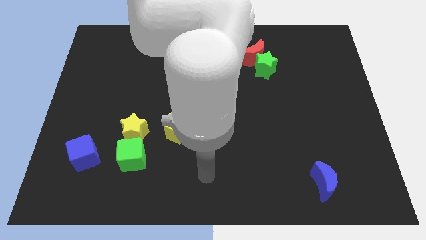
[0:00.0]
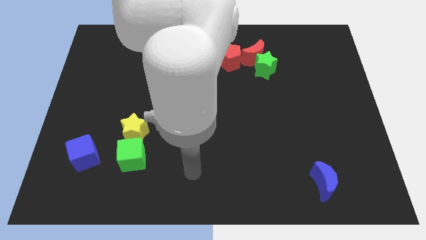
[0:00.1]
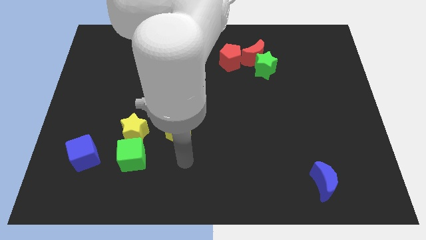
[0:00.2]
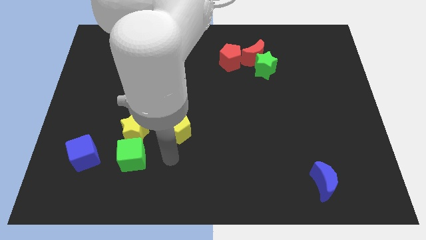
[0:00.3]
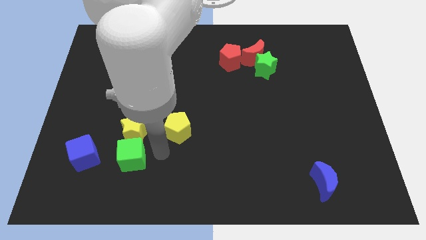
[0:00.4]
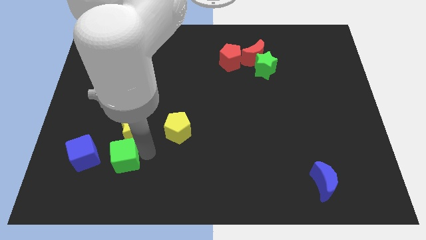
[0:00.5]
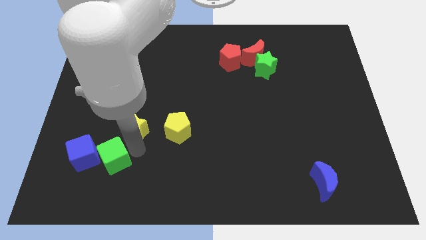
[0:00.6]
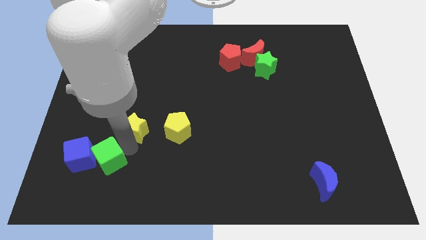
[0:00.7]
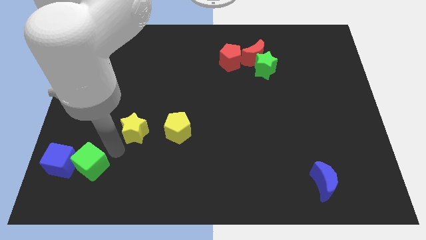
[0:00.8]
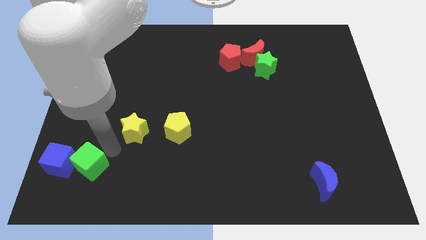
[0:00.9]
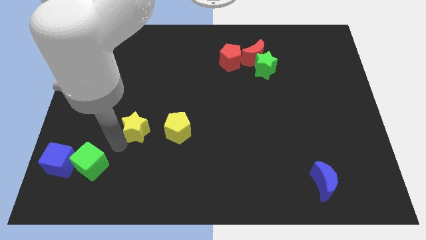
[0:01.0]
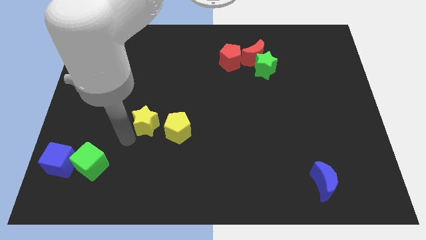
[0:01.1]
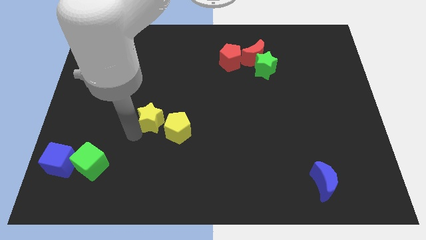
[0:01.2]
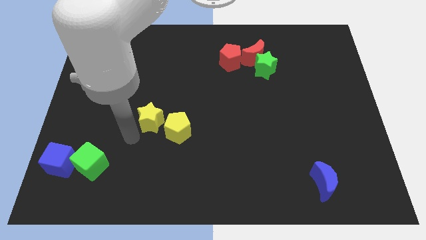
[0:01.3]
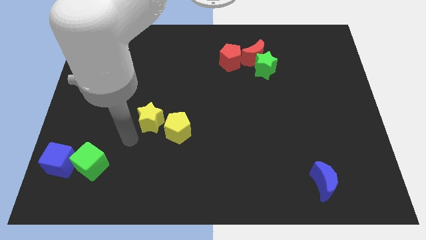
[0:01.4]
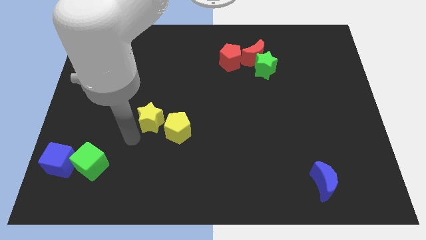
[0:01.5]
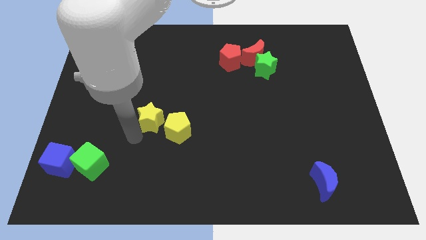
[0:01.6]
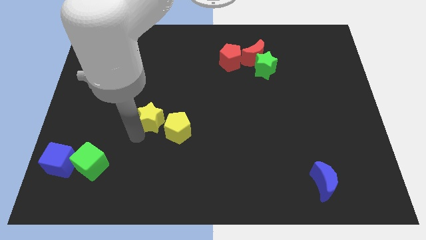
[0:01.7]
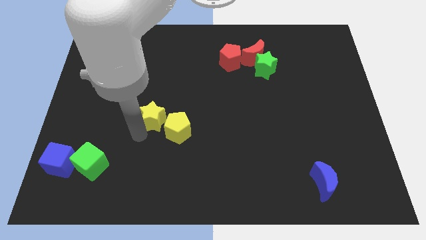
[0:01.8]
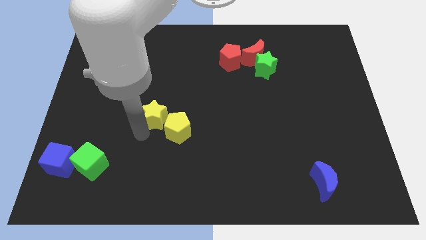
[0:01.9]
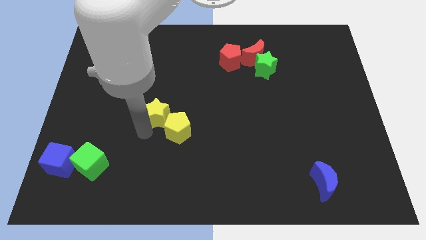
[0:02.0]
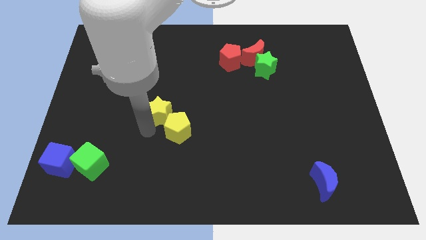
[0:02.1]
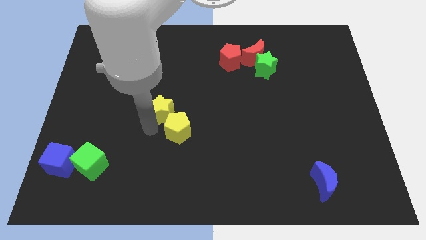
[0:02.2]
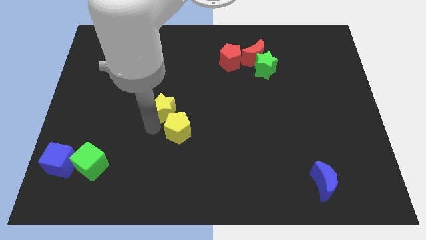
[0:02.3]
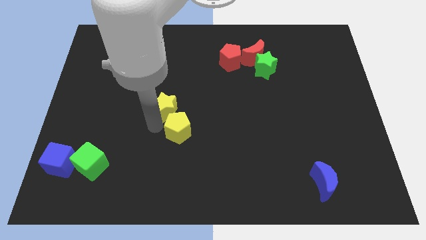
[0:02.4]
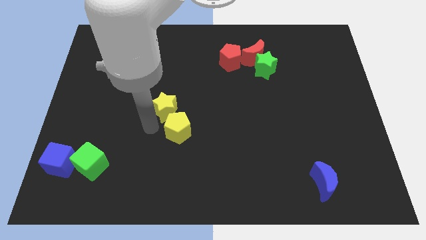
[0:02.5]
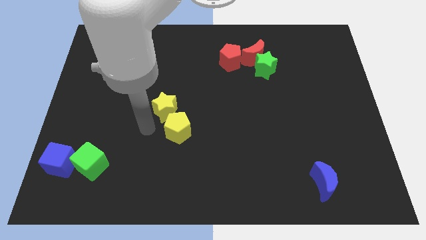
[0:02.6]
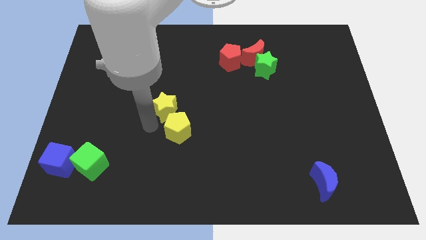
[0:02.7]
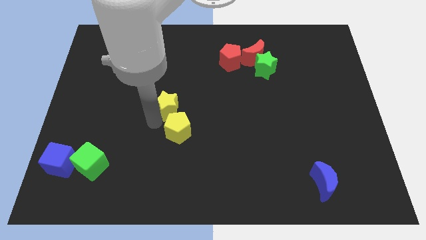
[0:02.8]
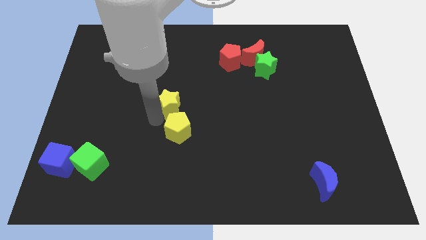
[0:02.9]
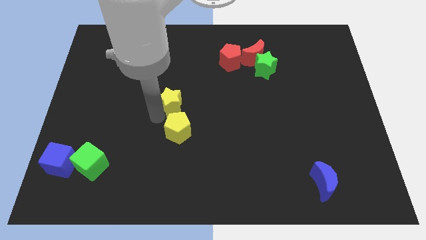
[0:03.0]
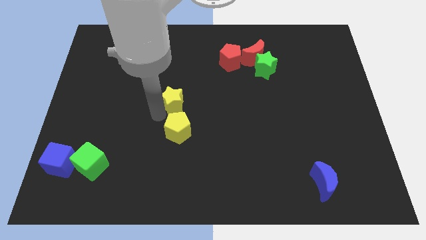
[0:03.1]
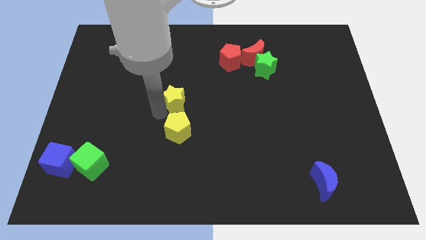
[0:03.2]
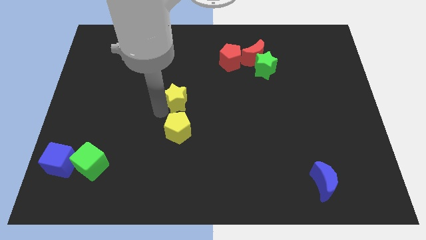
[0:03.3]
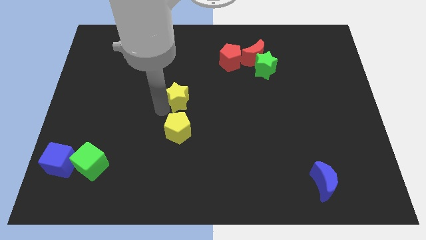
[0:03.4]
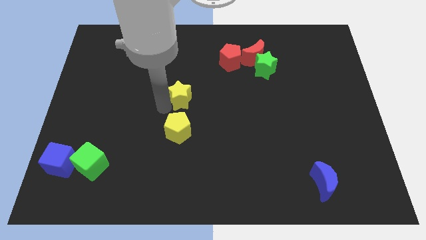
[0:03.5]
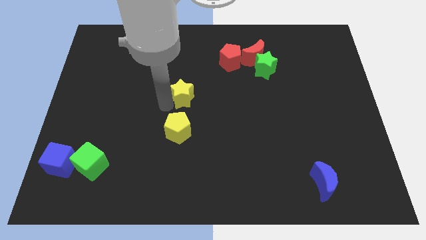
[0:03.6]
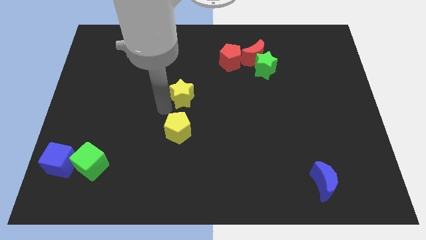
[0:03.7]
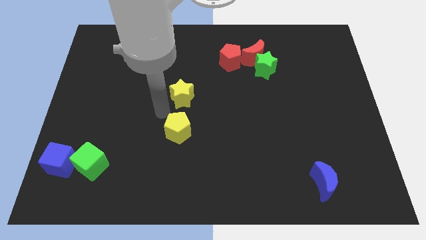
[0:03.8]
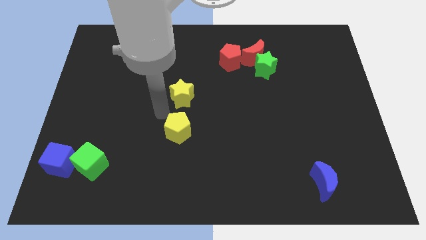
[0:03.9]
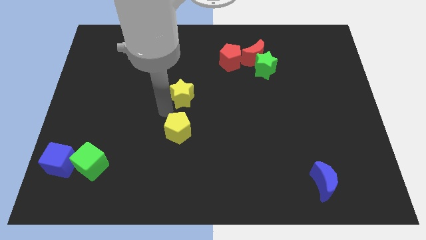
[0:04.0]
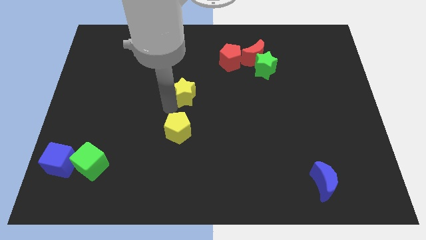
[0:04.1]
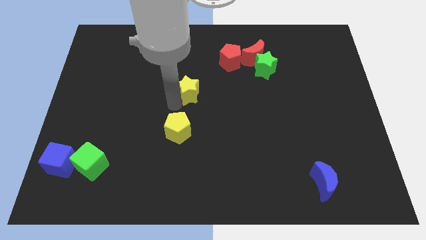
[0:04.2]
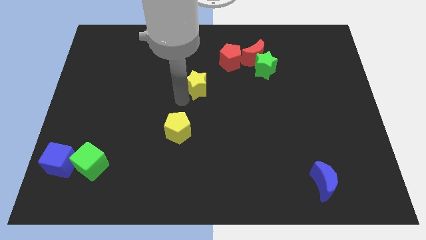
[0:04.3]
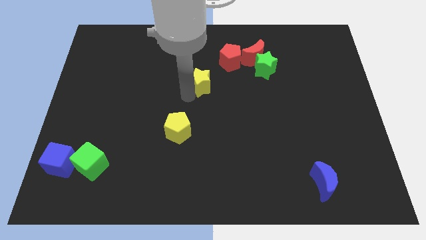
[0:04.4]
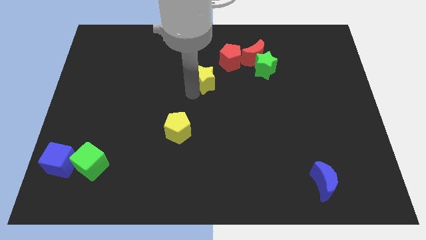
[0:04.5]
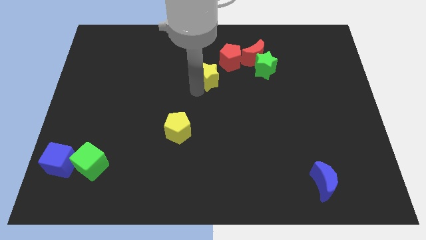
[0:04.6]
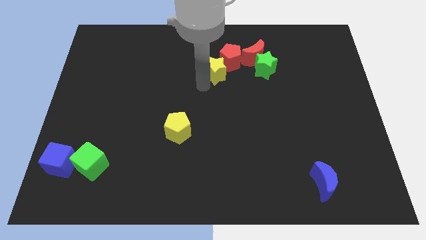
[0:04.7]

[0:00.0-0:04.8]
push the yellow star next to the red pentagon

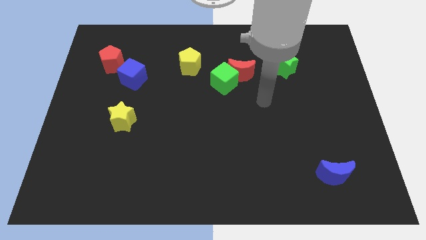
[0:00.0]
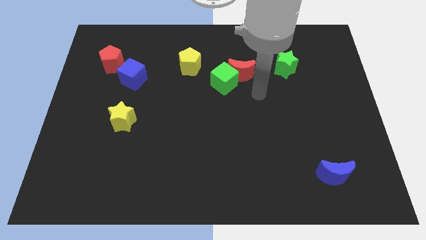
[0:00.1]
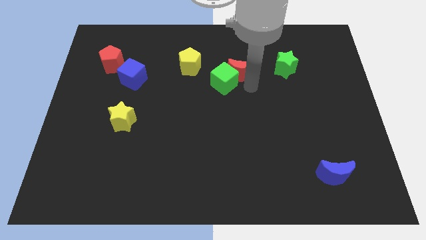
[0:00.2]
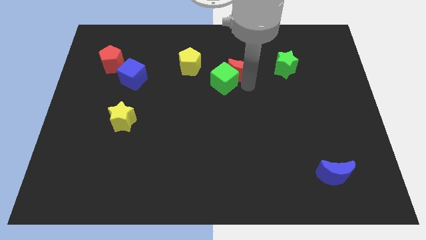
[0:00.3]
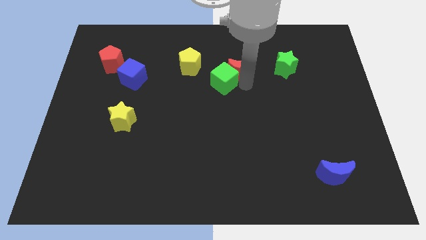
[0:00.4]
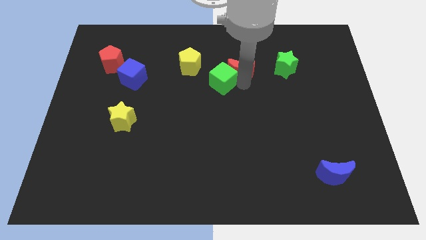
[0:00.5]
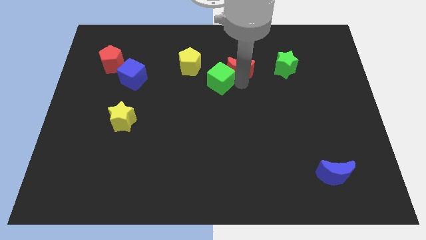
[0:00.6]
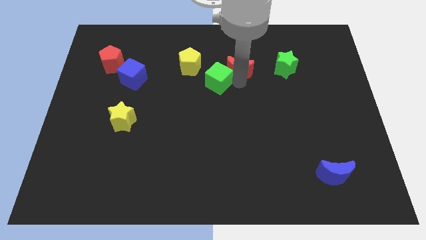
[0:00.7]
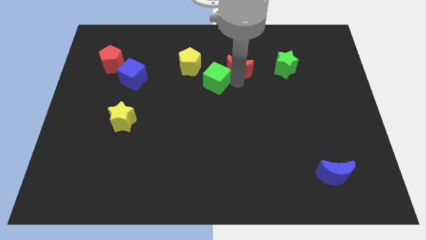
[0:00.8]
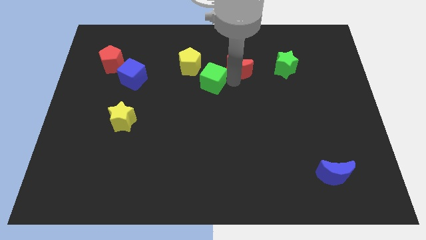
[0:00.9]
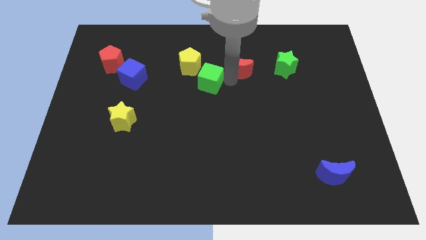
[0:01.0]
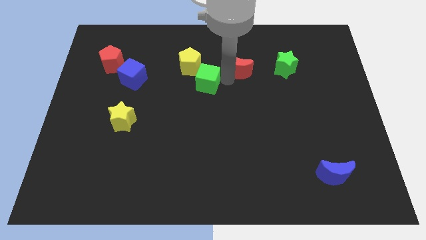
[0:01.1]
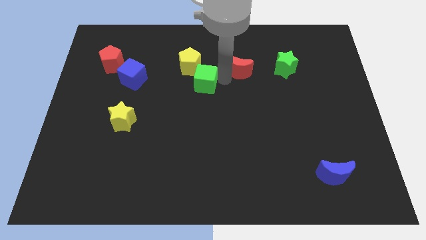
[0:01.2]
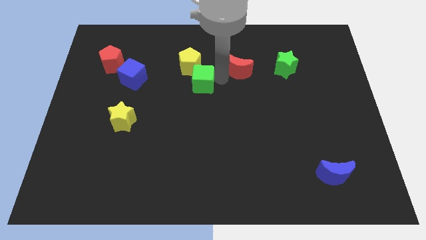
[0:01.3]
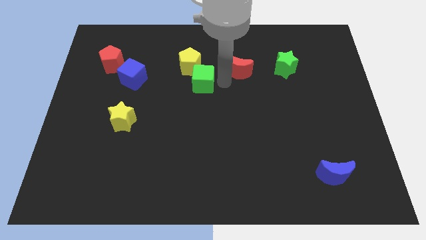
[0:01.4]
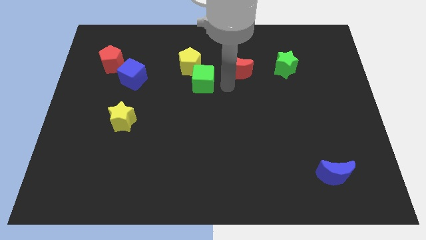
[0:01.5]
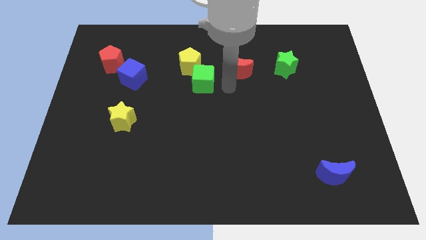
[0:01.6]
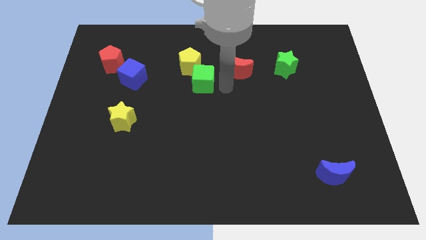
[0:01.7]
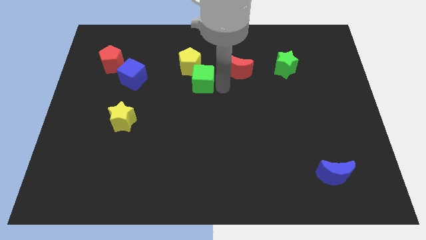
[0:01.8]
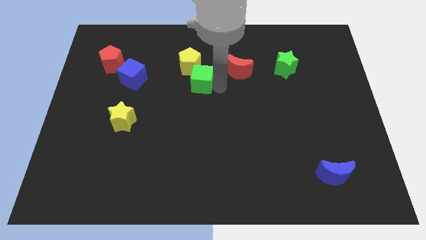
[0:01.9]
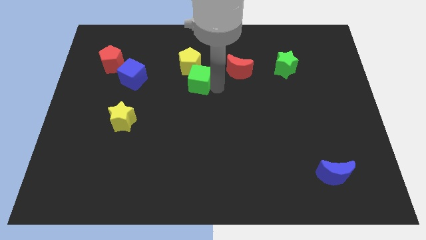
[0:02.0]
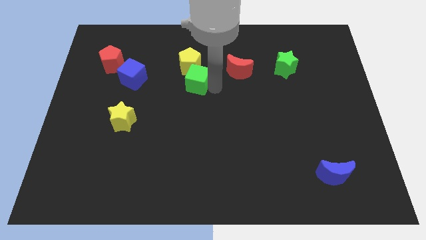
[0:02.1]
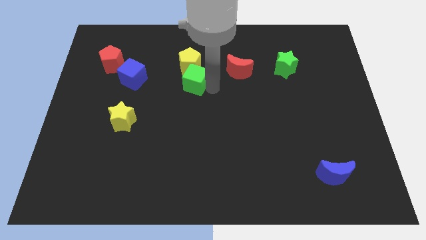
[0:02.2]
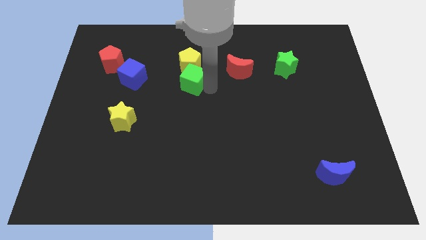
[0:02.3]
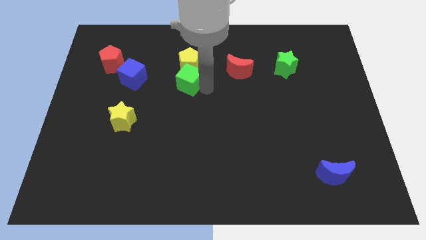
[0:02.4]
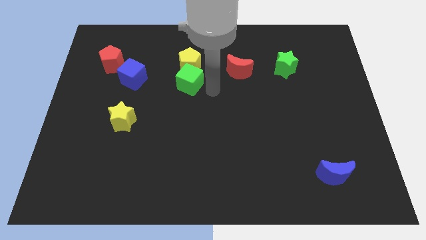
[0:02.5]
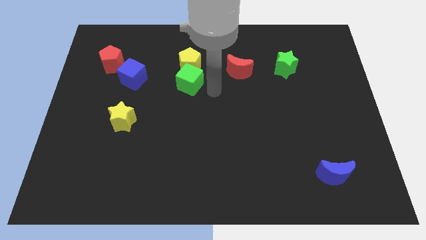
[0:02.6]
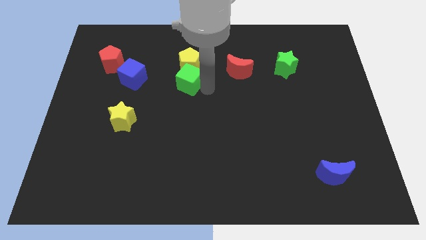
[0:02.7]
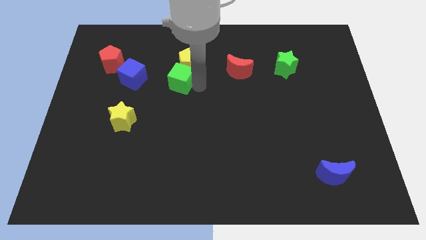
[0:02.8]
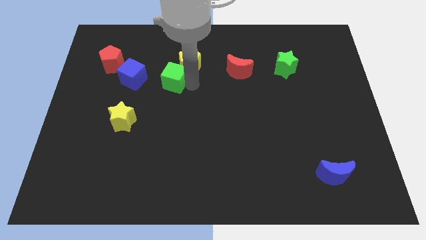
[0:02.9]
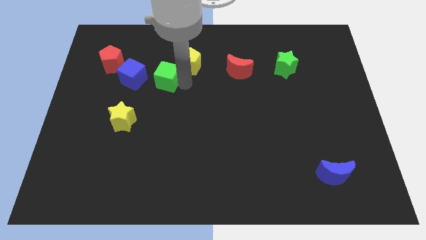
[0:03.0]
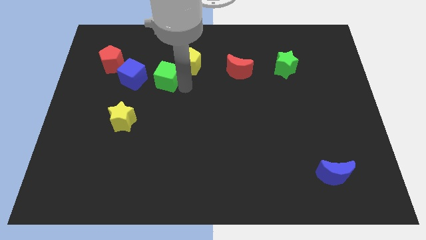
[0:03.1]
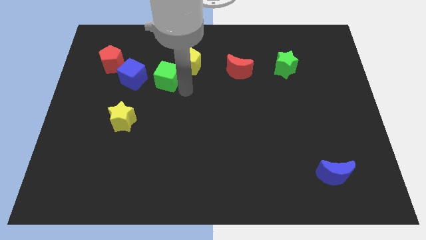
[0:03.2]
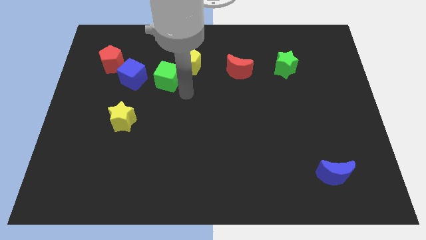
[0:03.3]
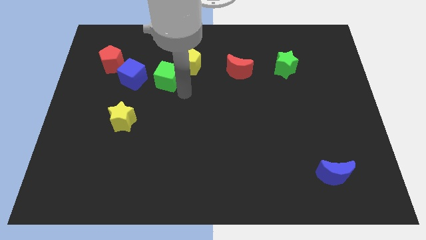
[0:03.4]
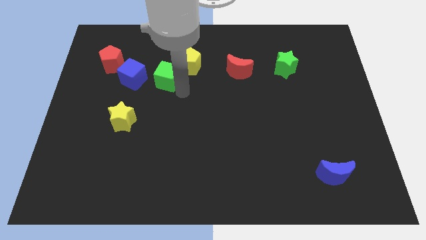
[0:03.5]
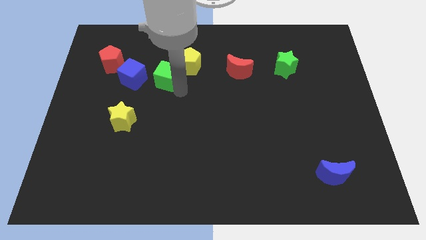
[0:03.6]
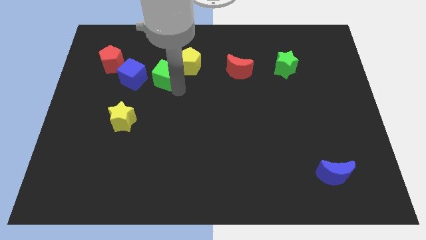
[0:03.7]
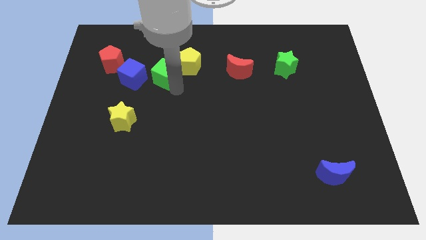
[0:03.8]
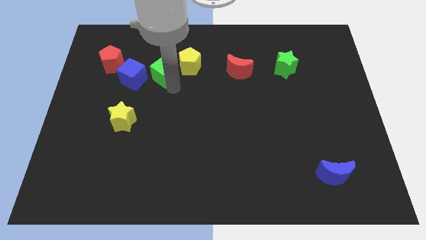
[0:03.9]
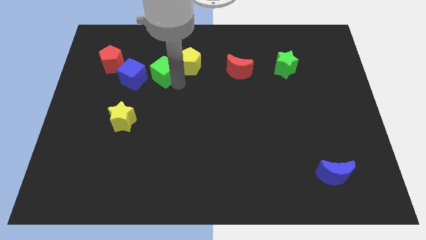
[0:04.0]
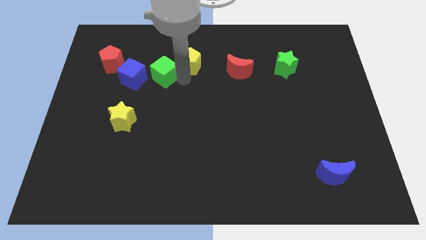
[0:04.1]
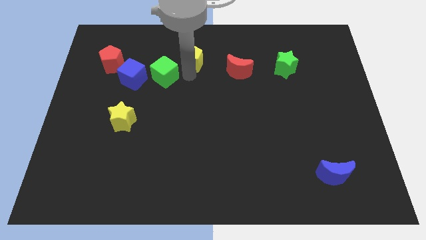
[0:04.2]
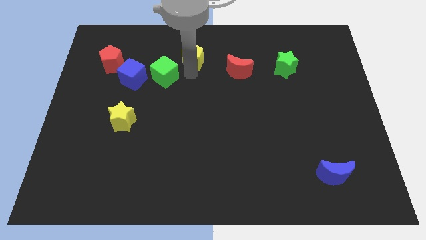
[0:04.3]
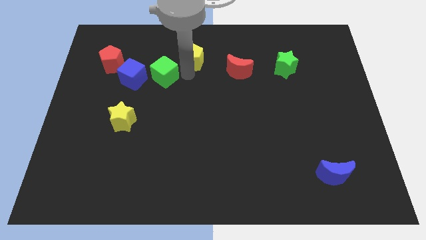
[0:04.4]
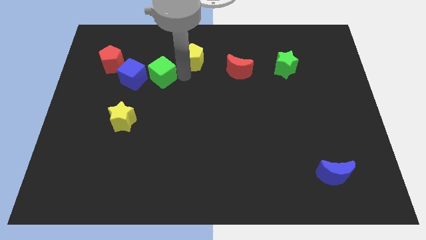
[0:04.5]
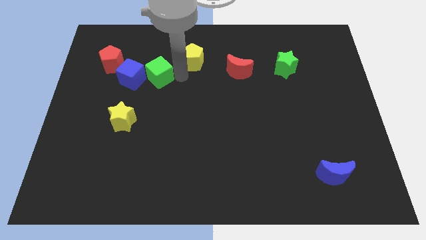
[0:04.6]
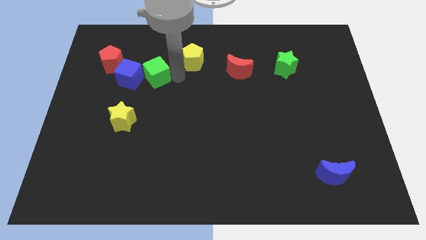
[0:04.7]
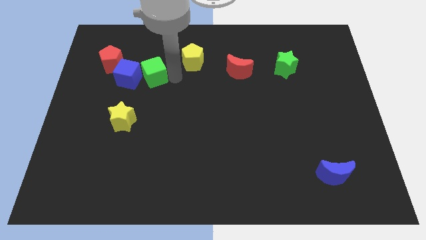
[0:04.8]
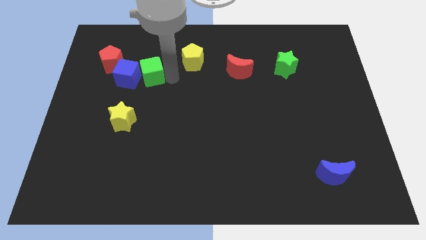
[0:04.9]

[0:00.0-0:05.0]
move the green cube to the blue cube
